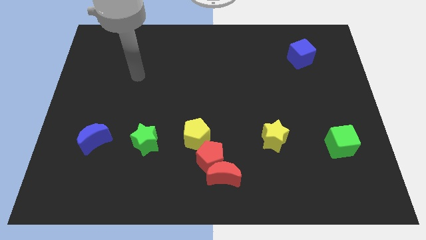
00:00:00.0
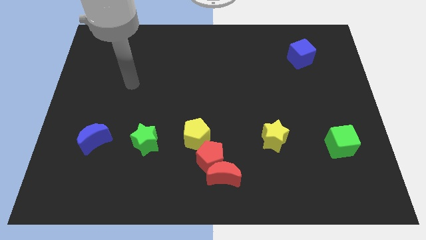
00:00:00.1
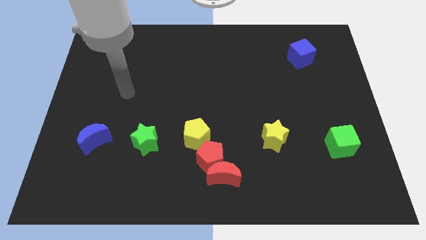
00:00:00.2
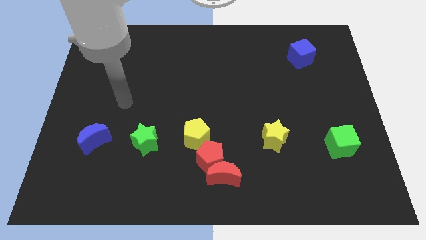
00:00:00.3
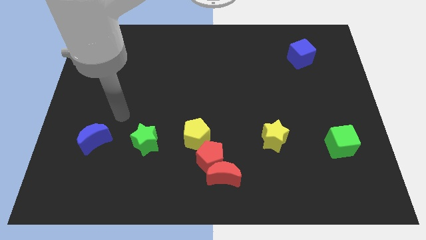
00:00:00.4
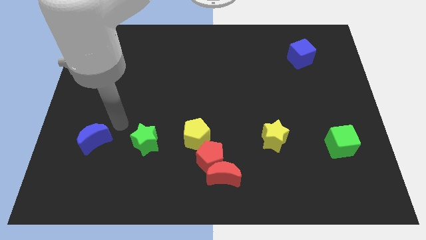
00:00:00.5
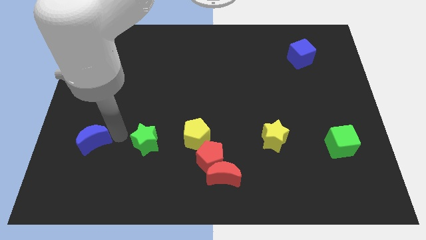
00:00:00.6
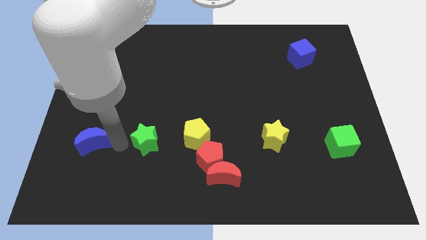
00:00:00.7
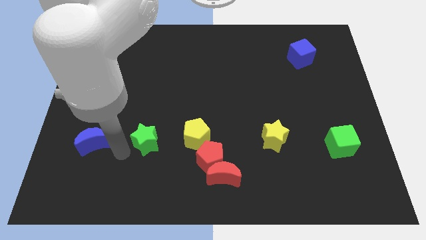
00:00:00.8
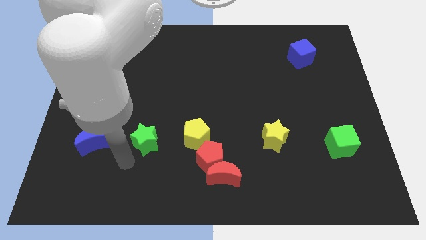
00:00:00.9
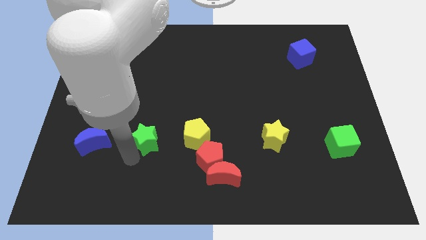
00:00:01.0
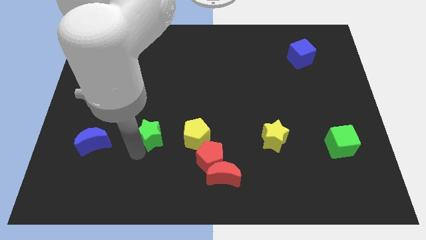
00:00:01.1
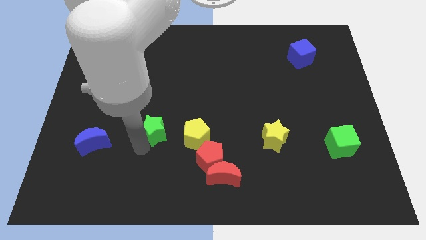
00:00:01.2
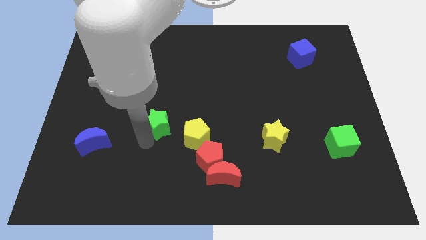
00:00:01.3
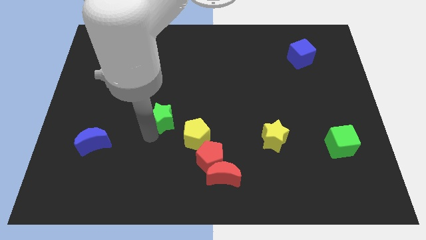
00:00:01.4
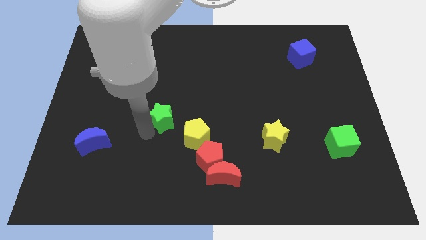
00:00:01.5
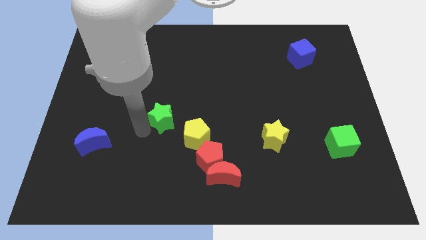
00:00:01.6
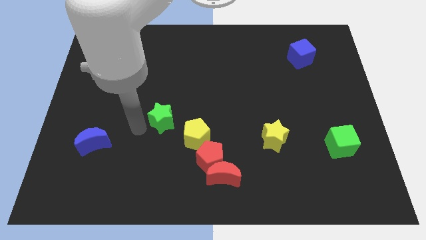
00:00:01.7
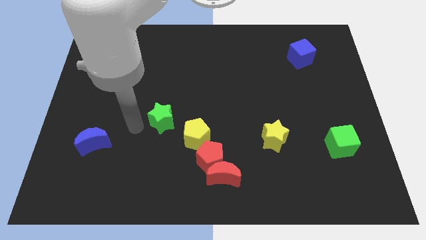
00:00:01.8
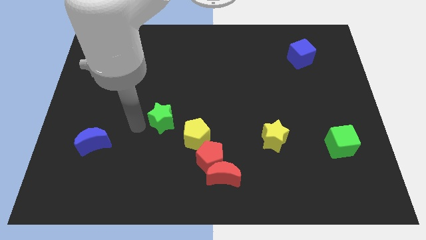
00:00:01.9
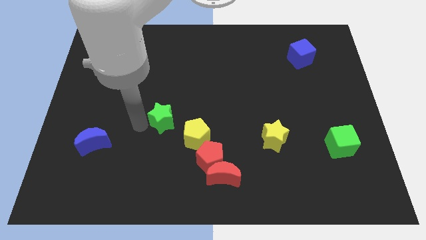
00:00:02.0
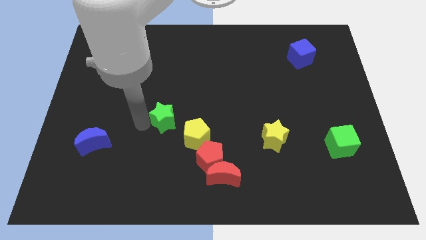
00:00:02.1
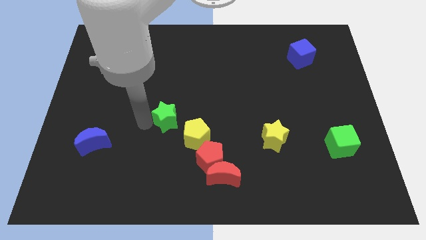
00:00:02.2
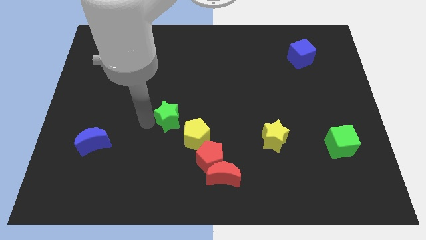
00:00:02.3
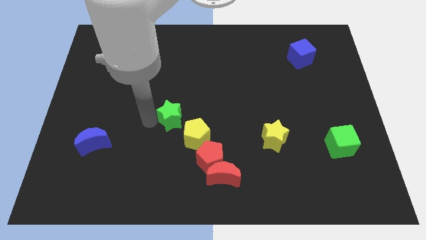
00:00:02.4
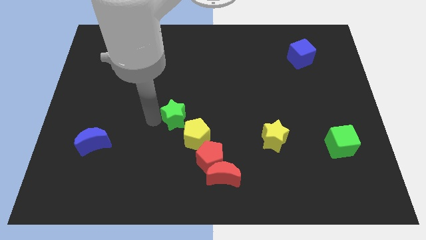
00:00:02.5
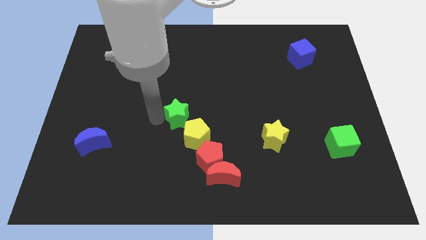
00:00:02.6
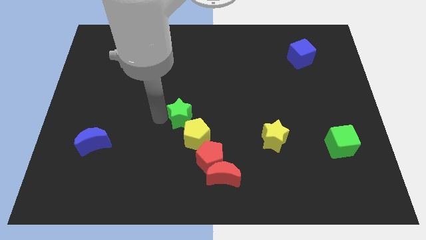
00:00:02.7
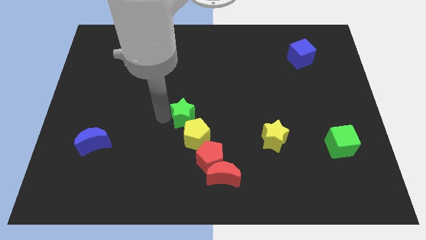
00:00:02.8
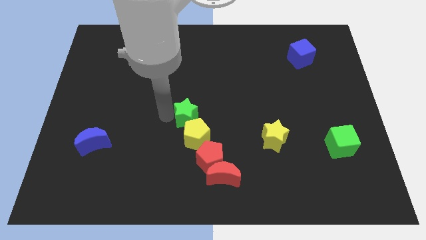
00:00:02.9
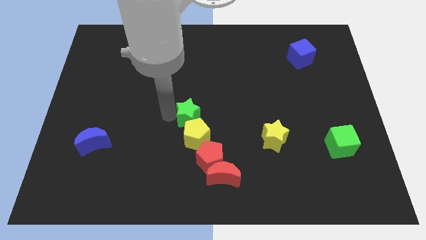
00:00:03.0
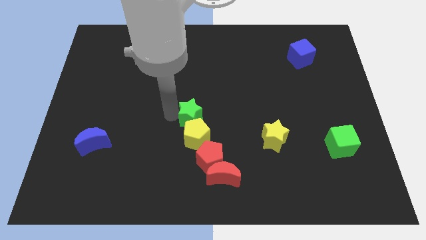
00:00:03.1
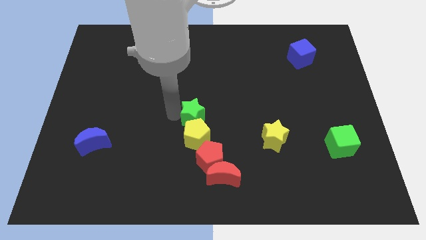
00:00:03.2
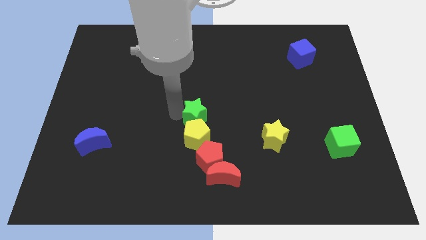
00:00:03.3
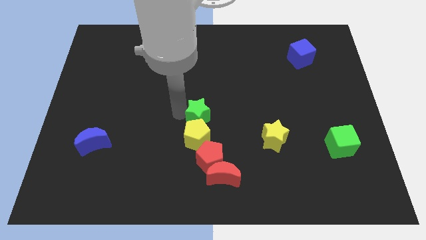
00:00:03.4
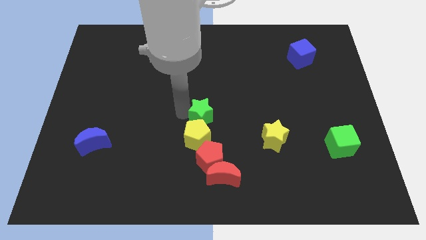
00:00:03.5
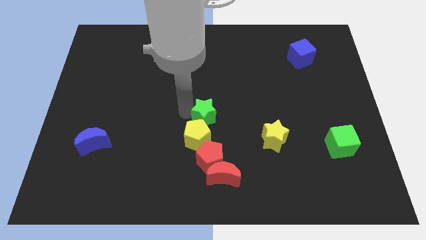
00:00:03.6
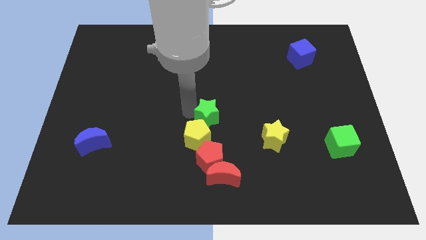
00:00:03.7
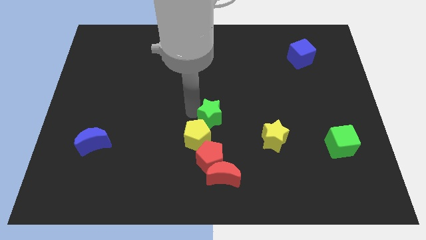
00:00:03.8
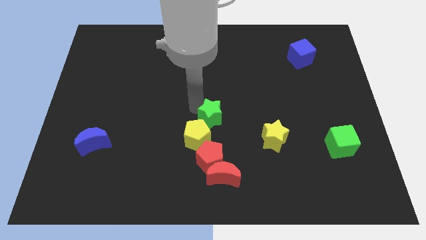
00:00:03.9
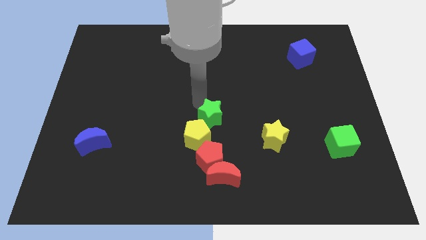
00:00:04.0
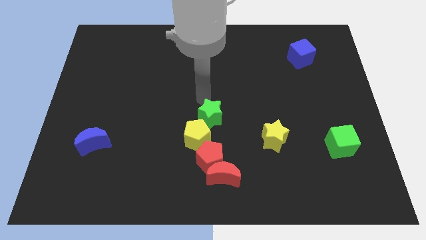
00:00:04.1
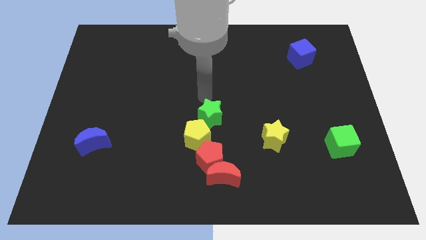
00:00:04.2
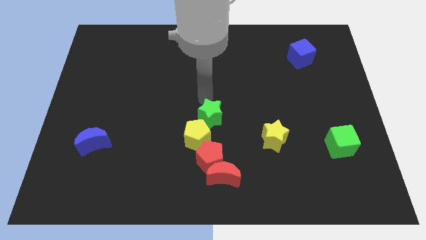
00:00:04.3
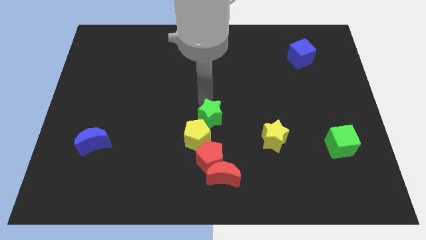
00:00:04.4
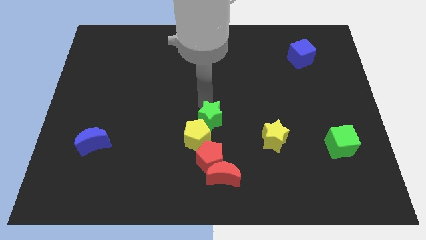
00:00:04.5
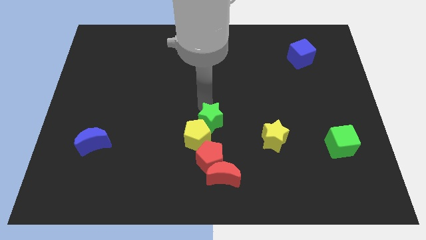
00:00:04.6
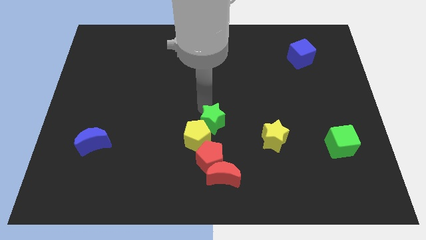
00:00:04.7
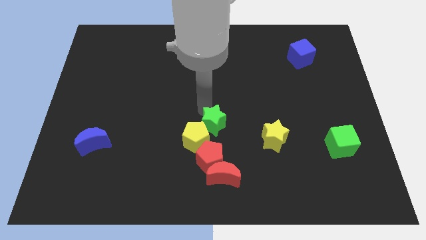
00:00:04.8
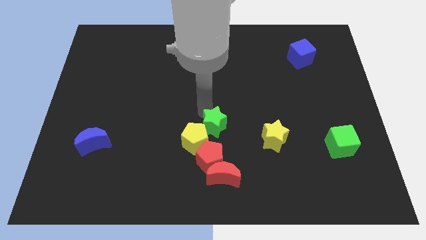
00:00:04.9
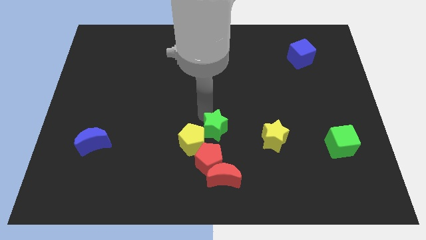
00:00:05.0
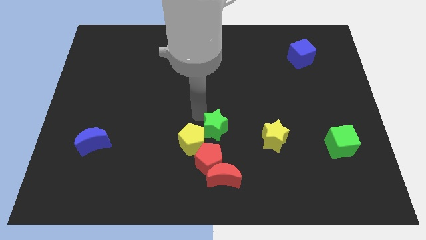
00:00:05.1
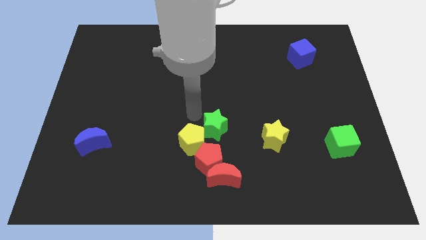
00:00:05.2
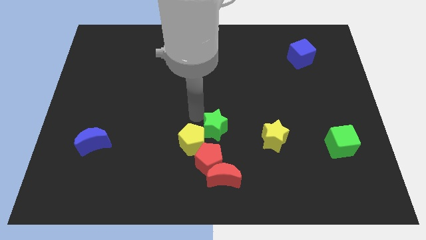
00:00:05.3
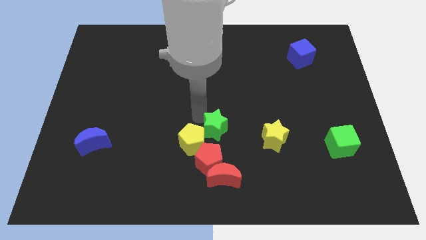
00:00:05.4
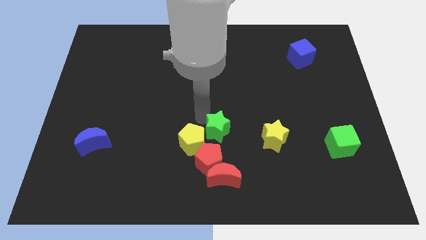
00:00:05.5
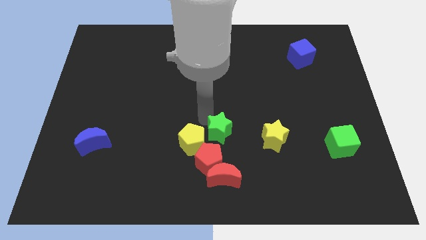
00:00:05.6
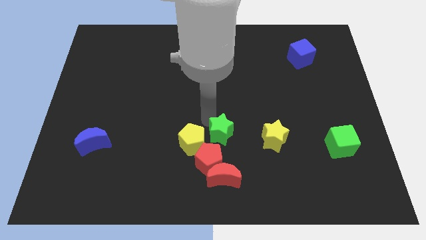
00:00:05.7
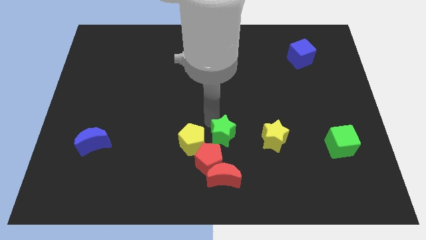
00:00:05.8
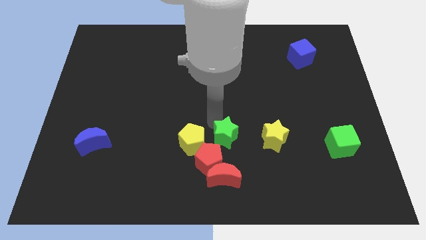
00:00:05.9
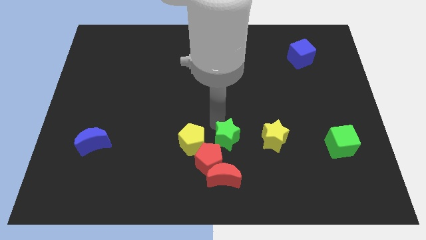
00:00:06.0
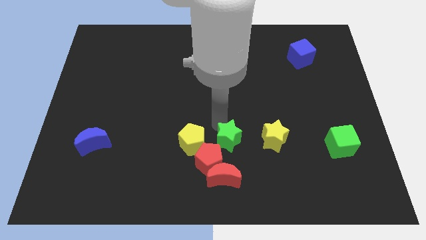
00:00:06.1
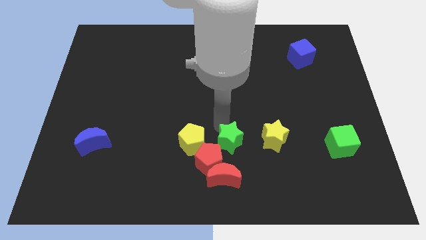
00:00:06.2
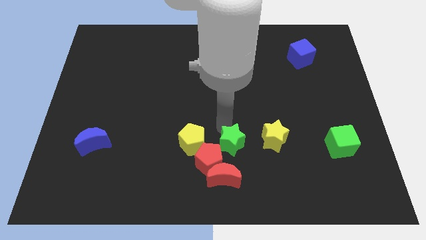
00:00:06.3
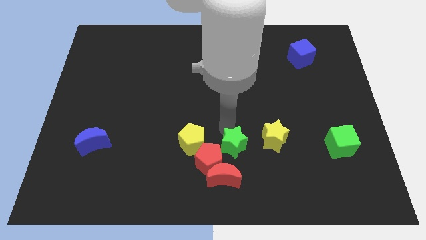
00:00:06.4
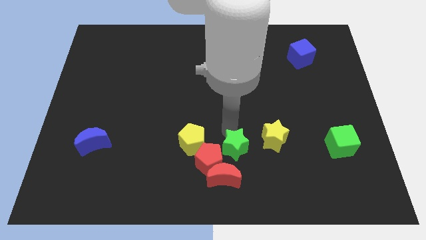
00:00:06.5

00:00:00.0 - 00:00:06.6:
move the green star diagonally down and to the left of the yellow star

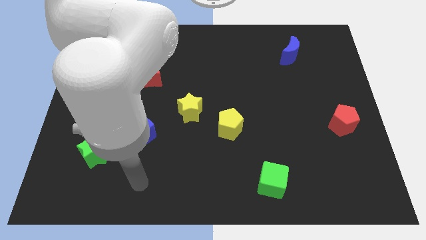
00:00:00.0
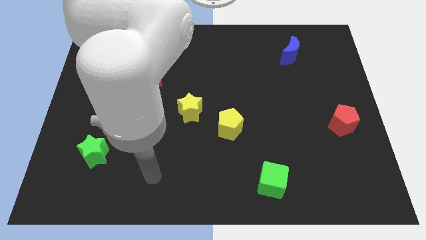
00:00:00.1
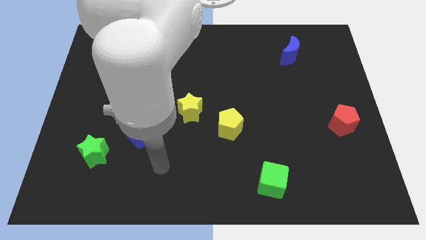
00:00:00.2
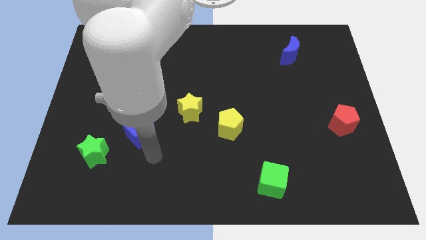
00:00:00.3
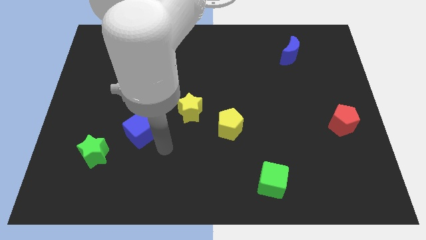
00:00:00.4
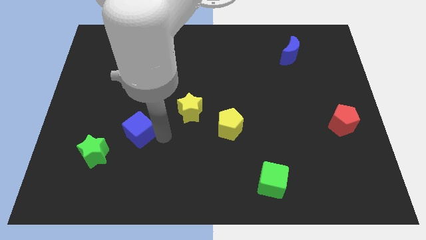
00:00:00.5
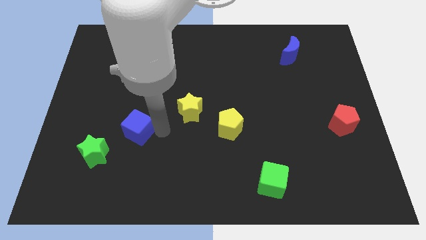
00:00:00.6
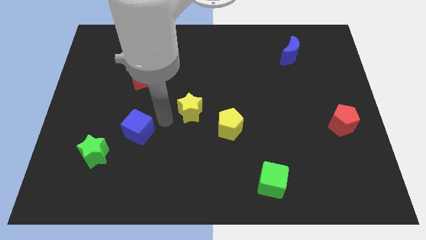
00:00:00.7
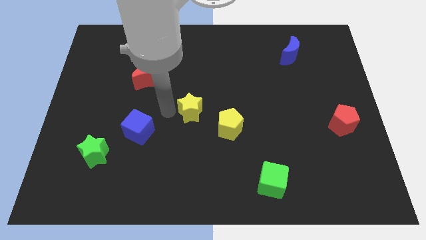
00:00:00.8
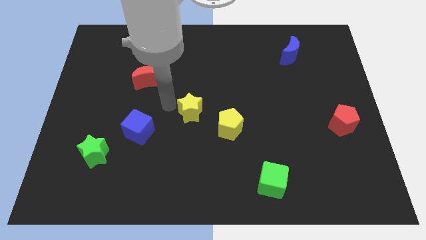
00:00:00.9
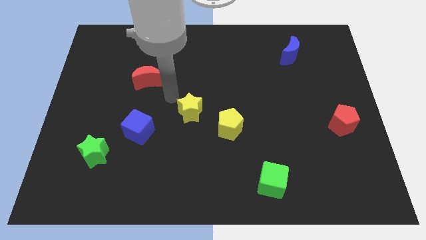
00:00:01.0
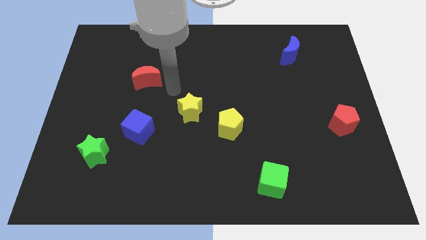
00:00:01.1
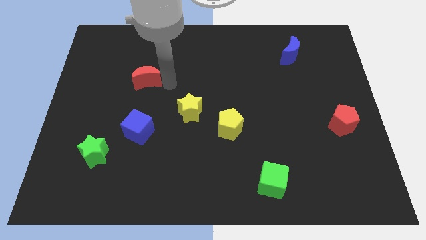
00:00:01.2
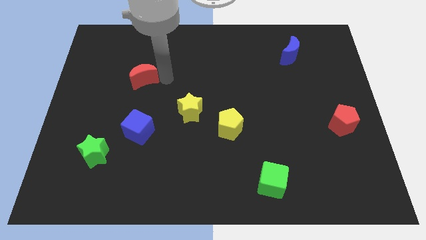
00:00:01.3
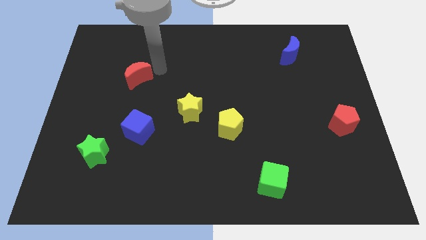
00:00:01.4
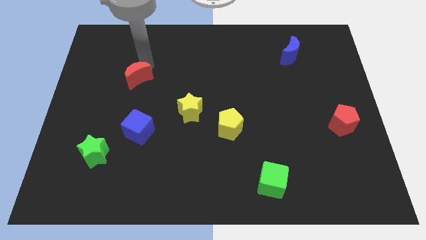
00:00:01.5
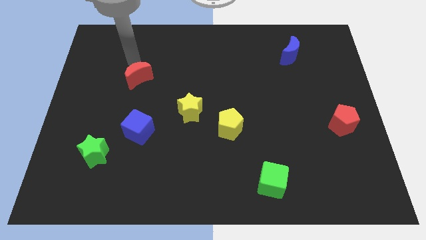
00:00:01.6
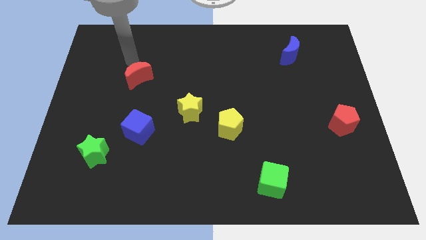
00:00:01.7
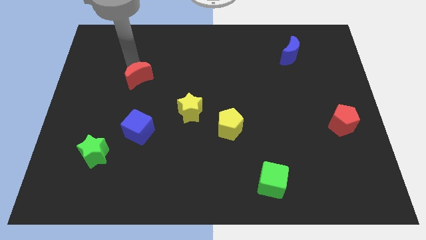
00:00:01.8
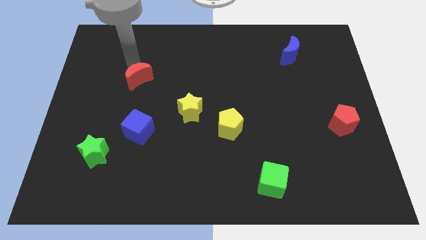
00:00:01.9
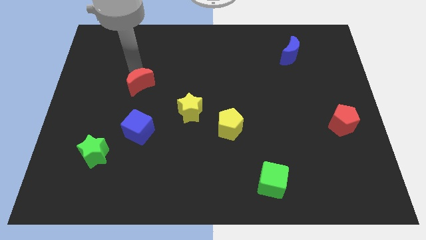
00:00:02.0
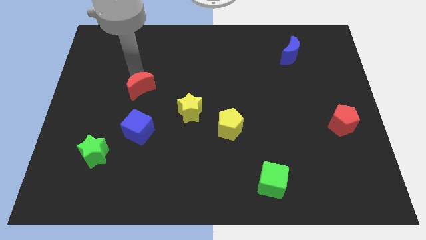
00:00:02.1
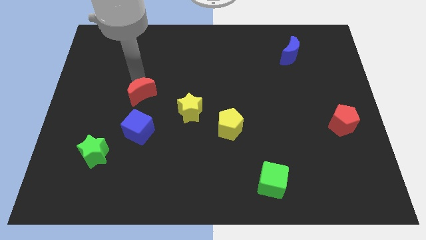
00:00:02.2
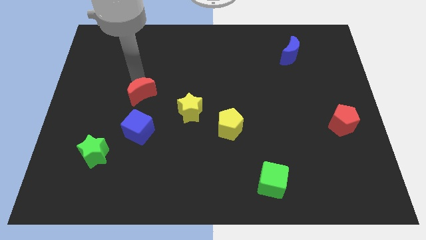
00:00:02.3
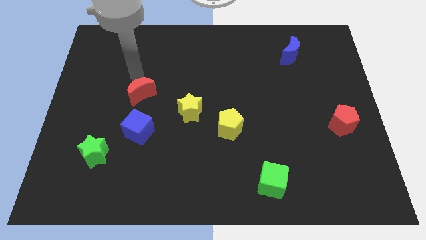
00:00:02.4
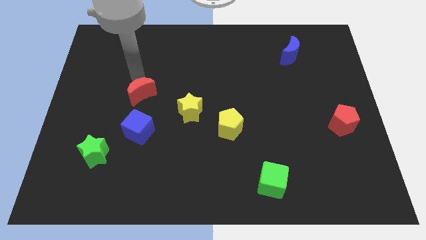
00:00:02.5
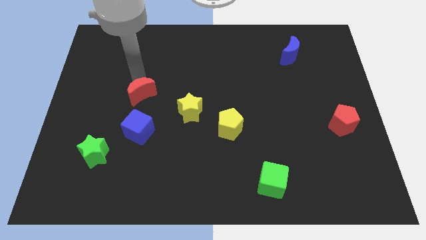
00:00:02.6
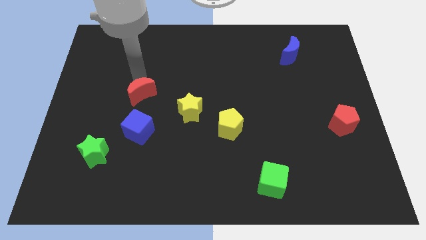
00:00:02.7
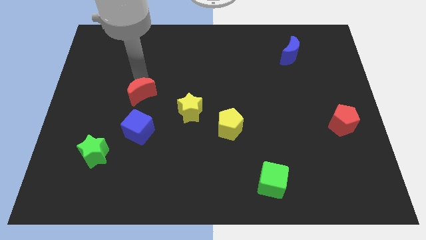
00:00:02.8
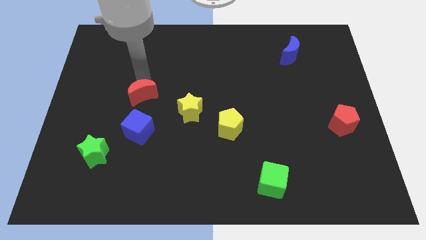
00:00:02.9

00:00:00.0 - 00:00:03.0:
push the red moon left of the yellow star
